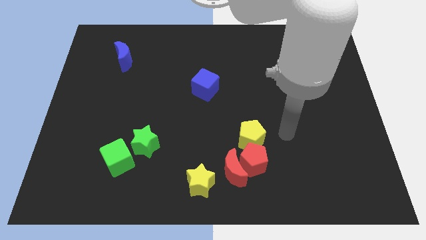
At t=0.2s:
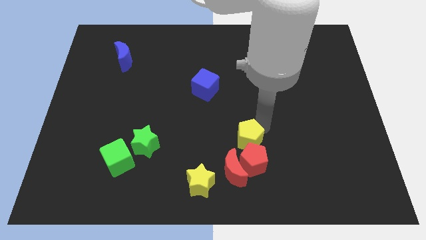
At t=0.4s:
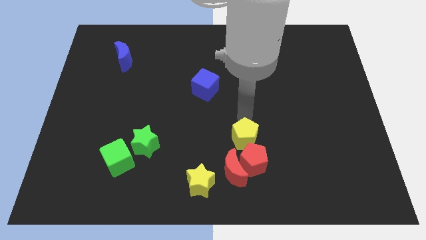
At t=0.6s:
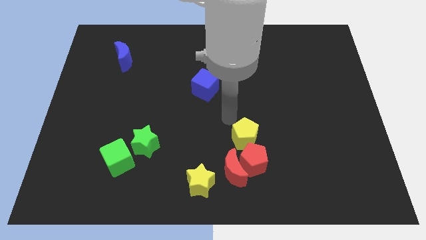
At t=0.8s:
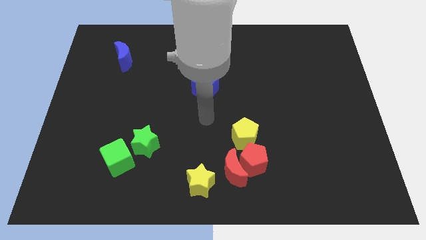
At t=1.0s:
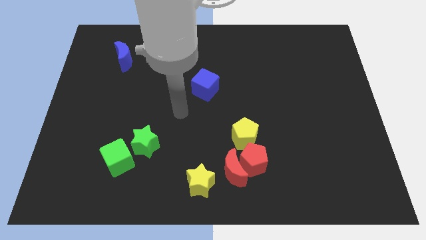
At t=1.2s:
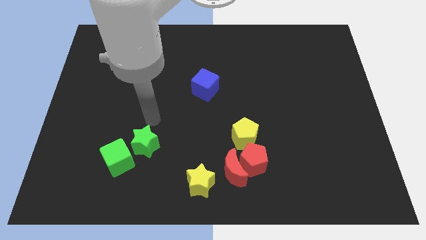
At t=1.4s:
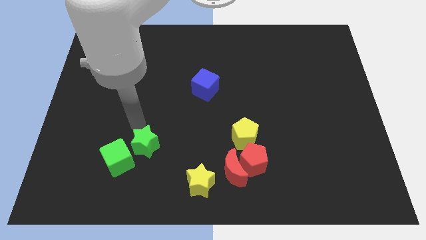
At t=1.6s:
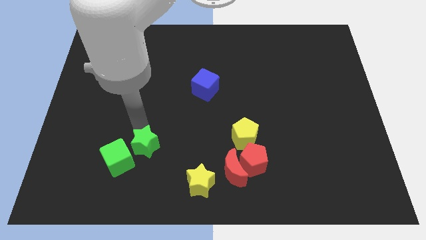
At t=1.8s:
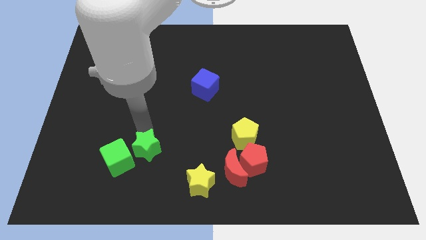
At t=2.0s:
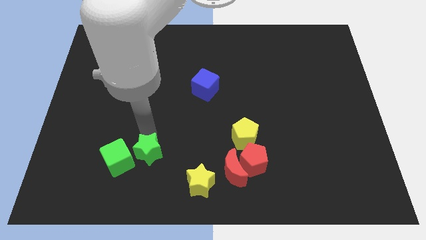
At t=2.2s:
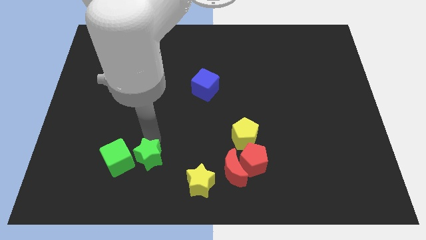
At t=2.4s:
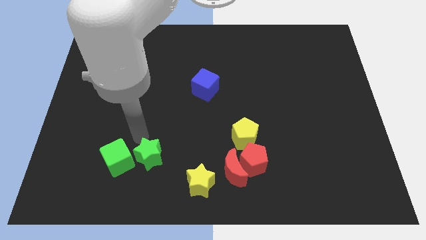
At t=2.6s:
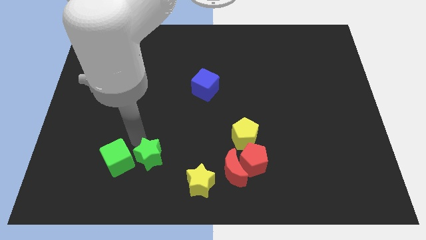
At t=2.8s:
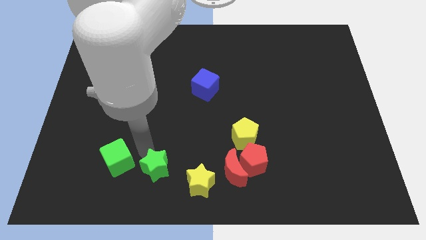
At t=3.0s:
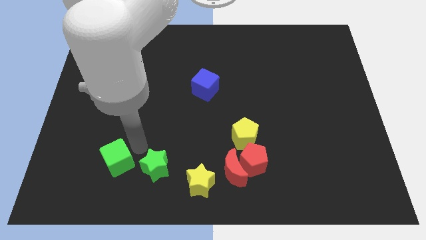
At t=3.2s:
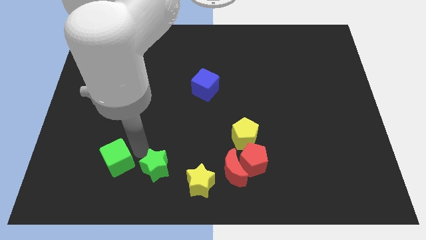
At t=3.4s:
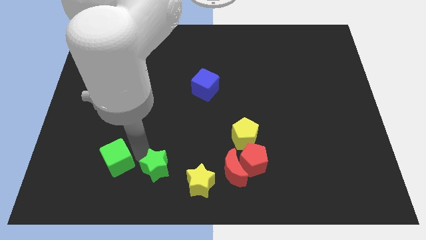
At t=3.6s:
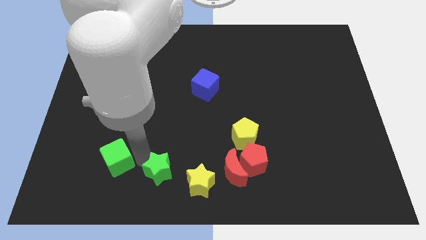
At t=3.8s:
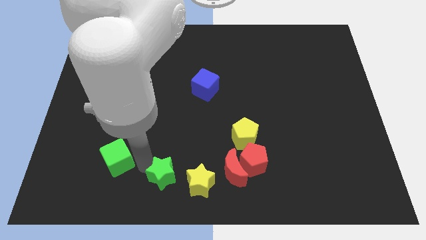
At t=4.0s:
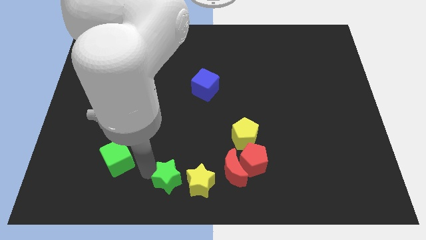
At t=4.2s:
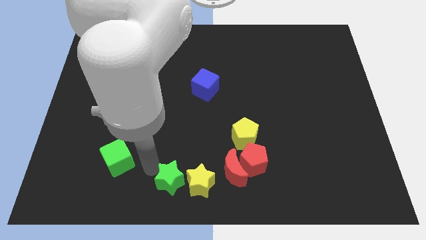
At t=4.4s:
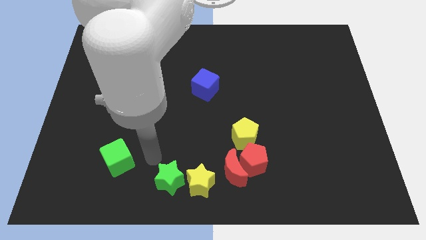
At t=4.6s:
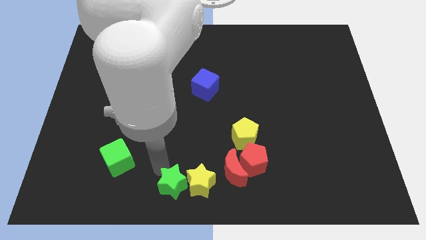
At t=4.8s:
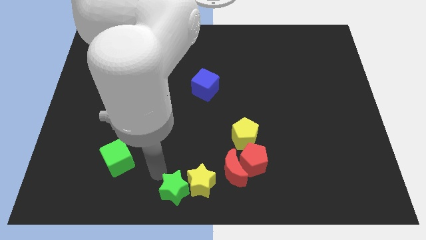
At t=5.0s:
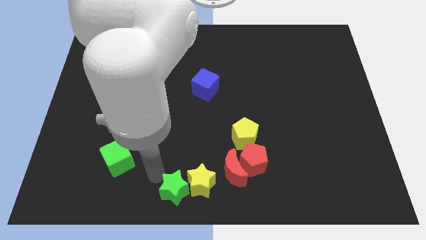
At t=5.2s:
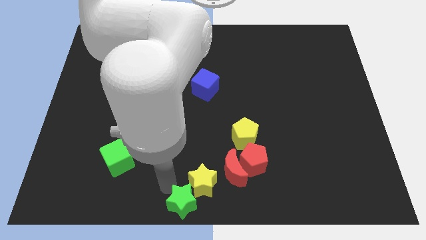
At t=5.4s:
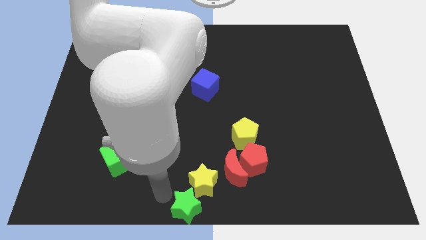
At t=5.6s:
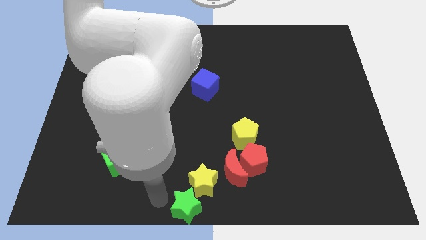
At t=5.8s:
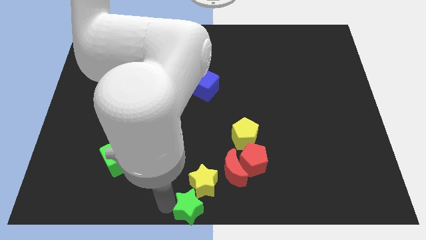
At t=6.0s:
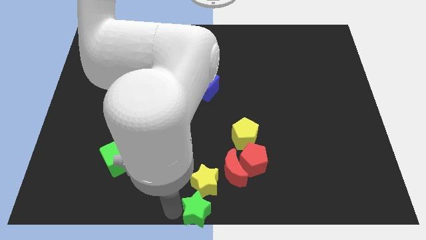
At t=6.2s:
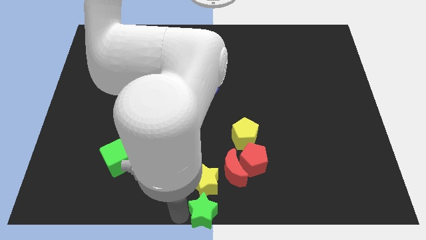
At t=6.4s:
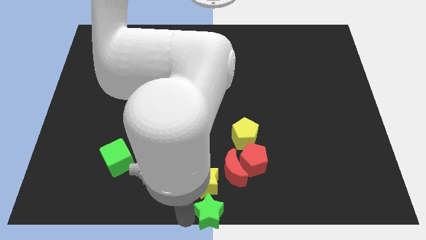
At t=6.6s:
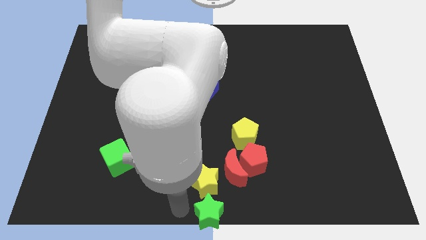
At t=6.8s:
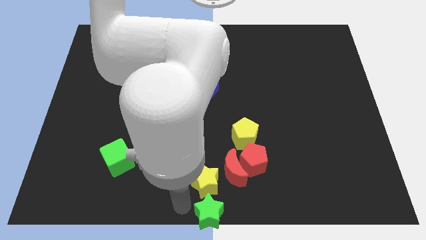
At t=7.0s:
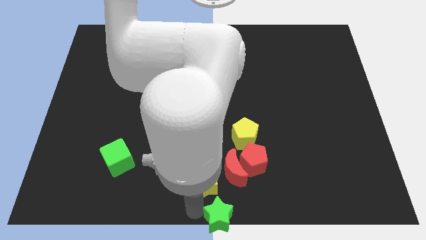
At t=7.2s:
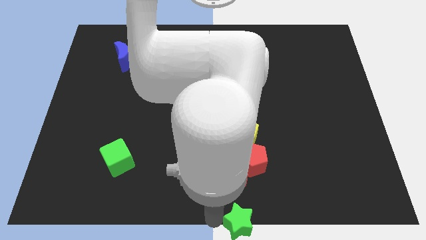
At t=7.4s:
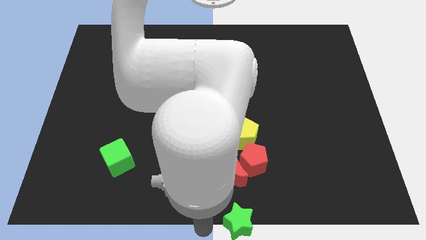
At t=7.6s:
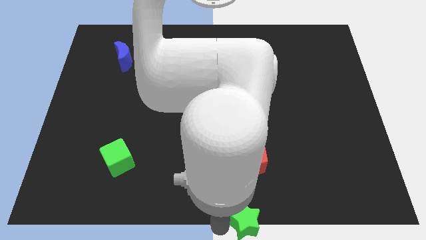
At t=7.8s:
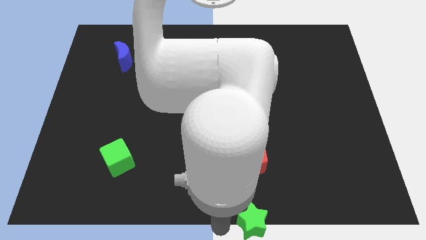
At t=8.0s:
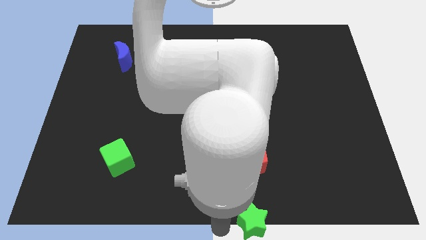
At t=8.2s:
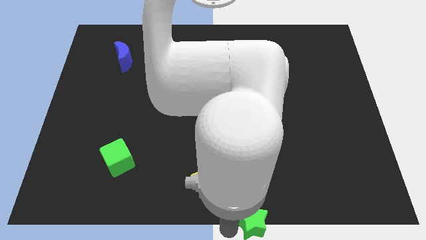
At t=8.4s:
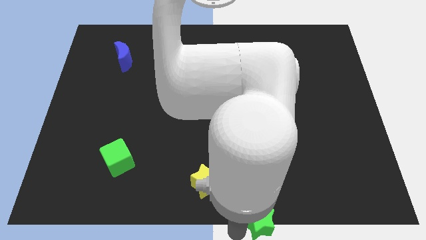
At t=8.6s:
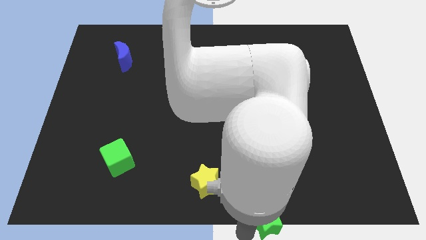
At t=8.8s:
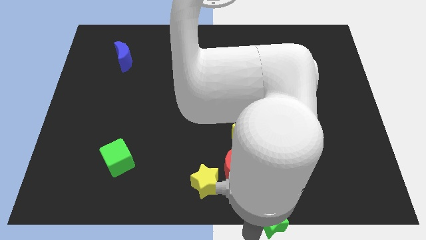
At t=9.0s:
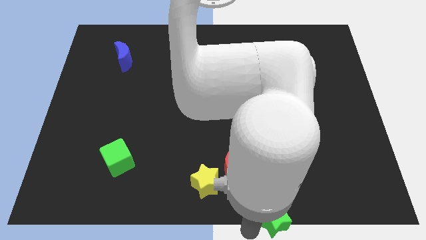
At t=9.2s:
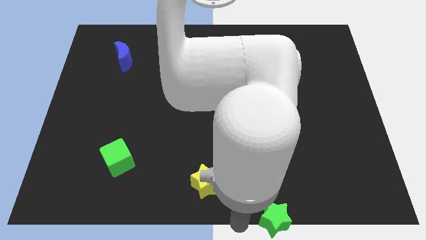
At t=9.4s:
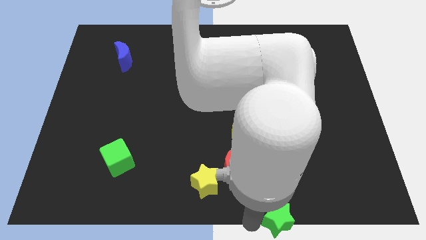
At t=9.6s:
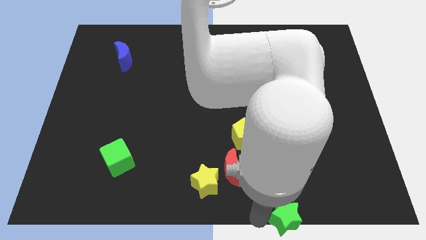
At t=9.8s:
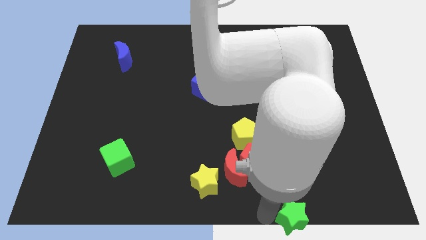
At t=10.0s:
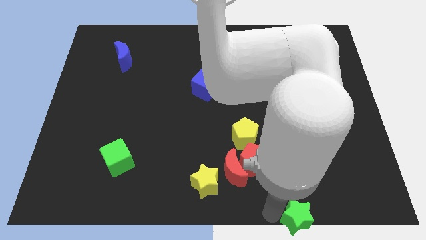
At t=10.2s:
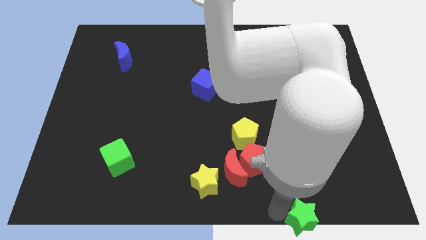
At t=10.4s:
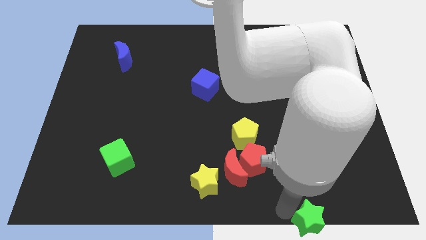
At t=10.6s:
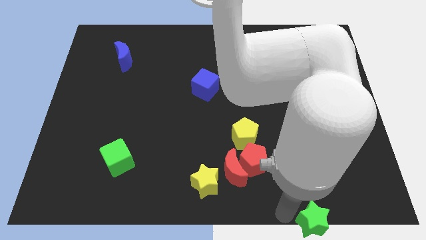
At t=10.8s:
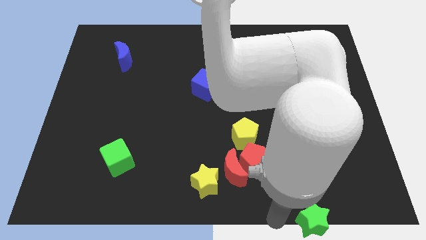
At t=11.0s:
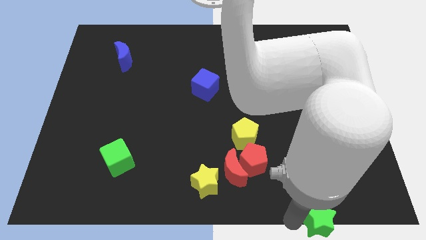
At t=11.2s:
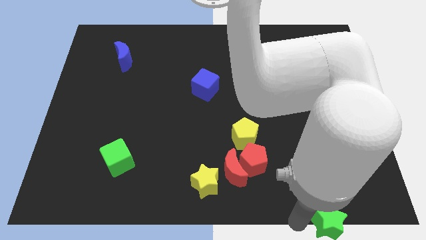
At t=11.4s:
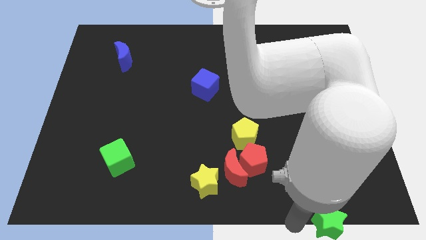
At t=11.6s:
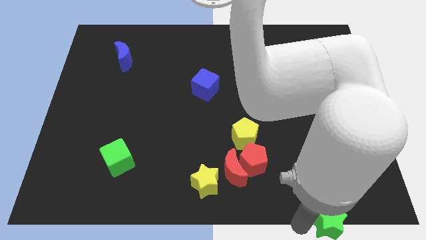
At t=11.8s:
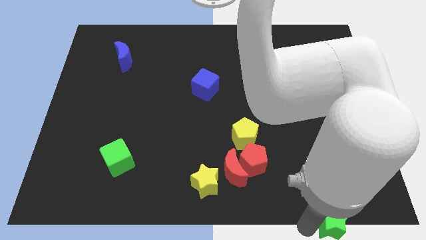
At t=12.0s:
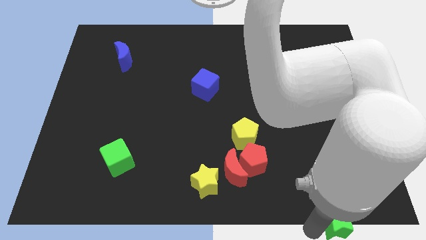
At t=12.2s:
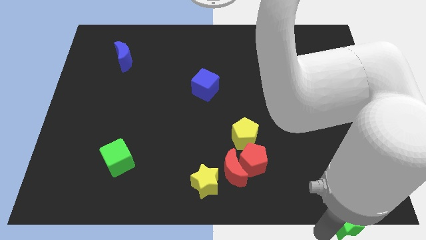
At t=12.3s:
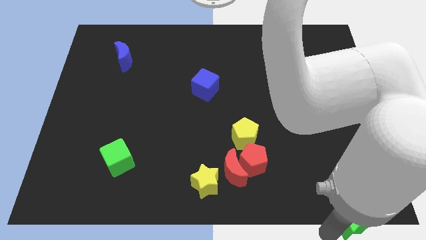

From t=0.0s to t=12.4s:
move the green star to the bottom right of the board

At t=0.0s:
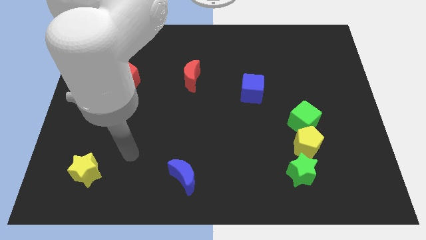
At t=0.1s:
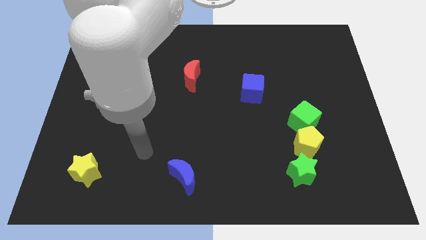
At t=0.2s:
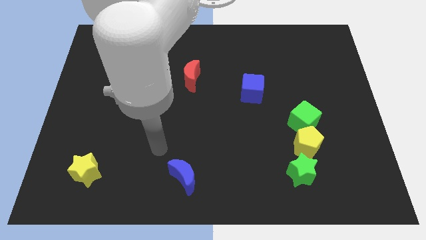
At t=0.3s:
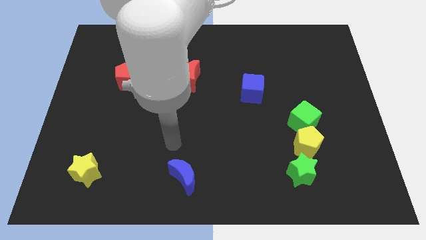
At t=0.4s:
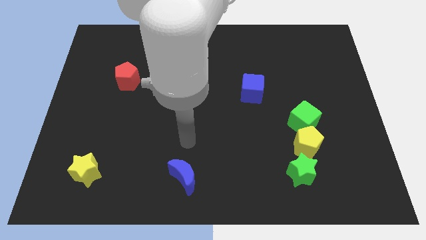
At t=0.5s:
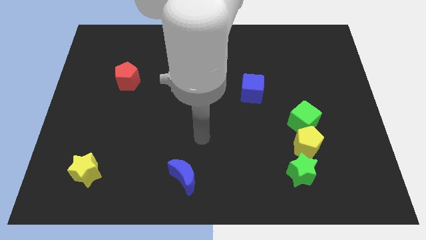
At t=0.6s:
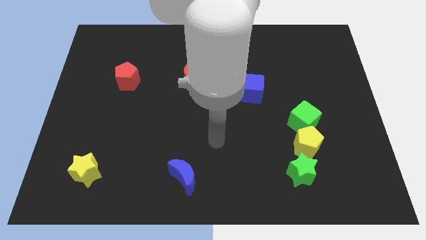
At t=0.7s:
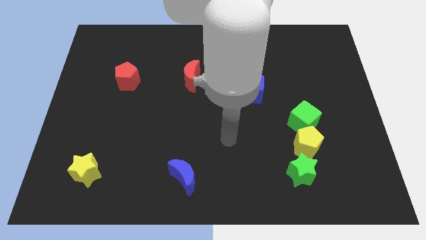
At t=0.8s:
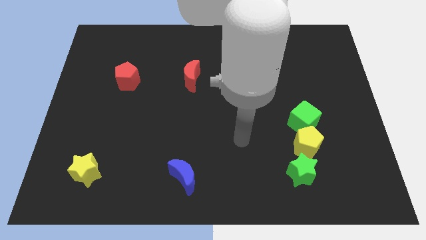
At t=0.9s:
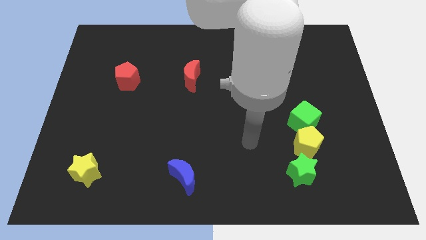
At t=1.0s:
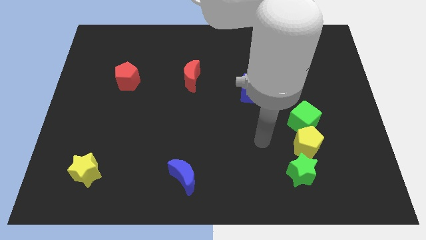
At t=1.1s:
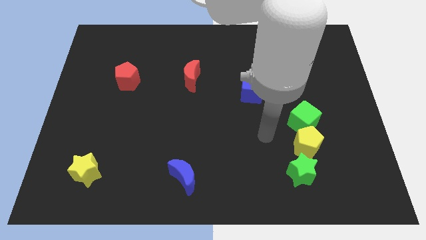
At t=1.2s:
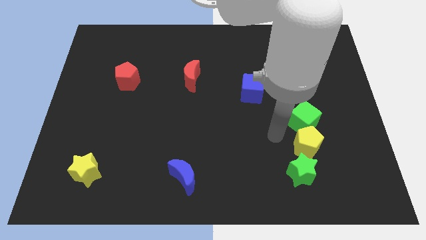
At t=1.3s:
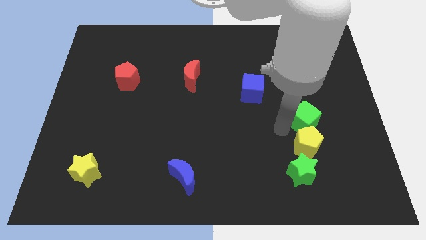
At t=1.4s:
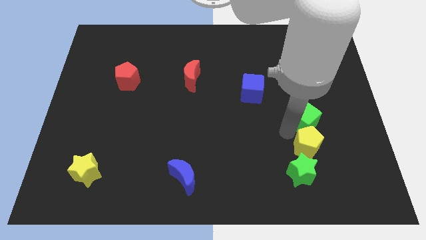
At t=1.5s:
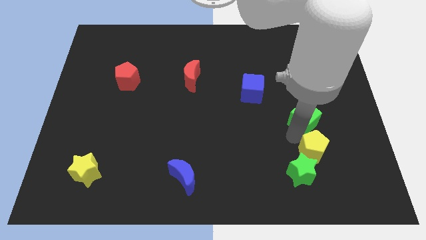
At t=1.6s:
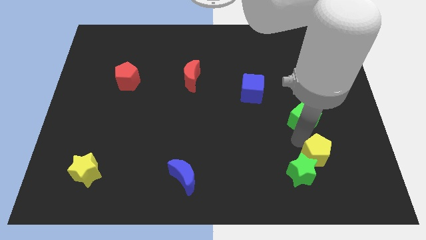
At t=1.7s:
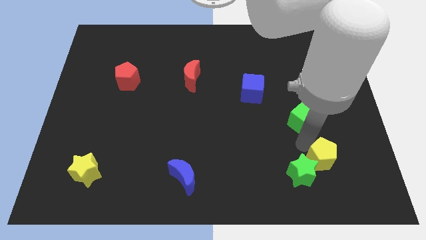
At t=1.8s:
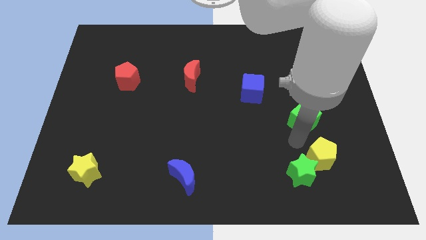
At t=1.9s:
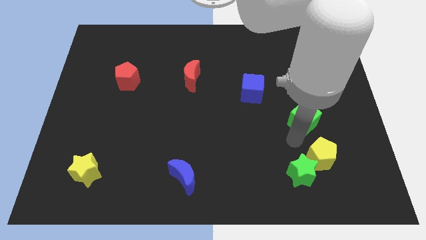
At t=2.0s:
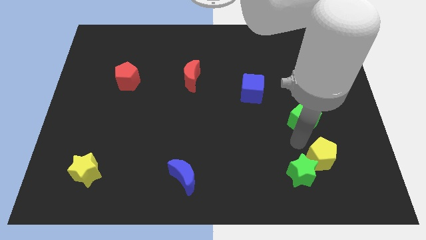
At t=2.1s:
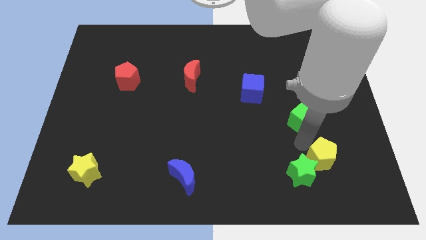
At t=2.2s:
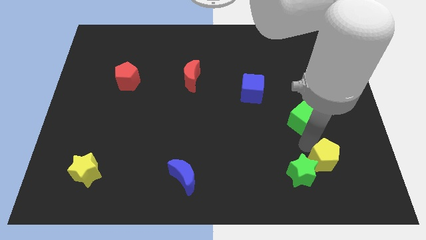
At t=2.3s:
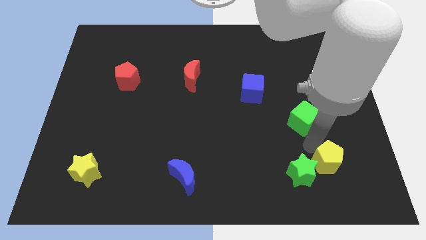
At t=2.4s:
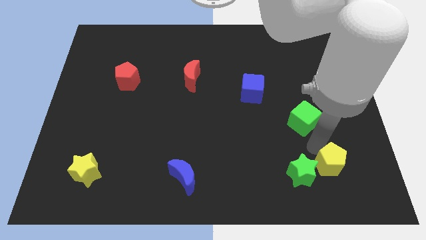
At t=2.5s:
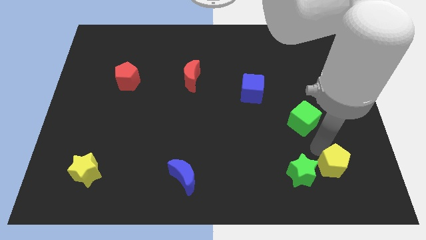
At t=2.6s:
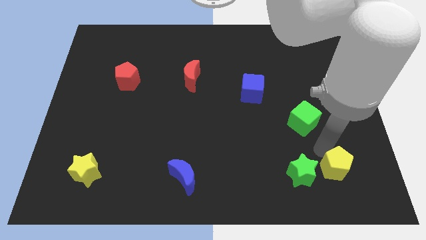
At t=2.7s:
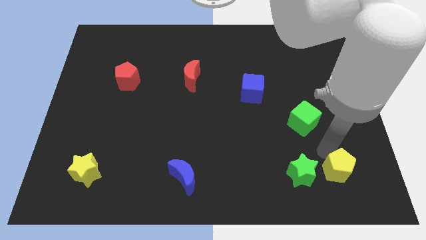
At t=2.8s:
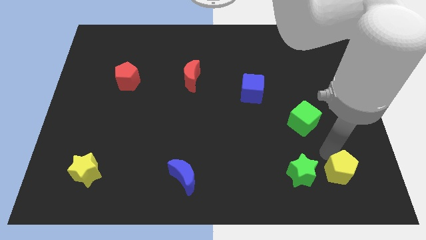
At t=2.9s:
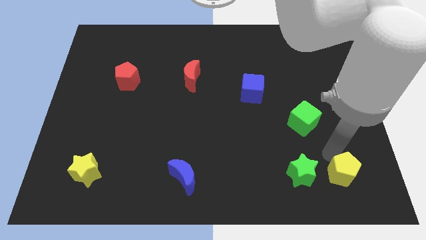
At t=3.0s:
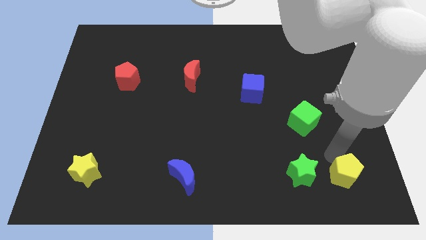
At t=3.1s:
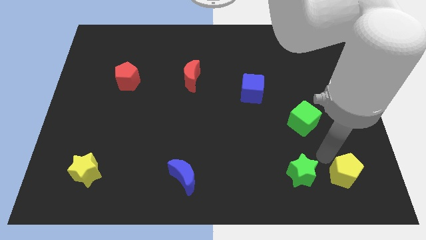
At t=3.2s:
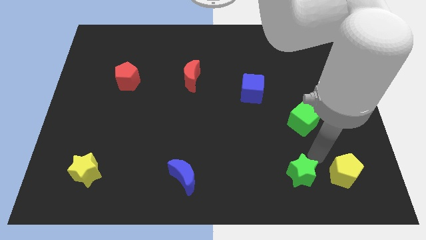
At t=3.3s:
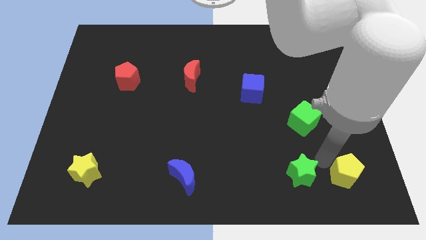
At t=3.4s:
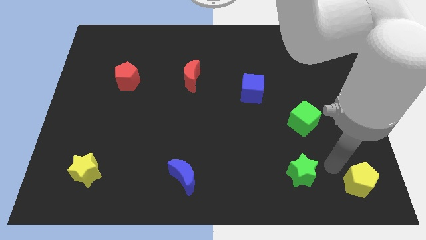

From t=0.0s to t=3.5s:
put the yellow pentagon to the bottom right corner
